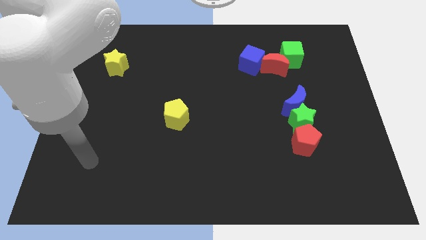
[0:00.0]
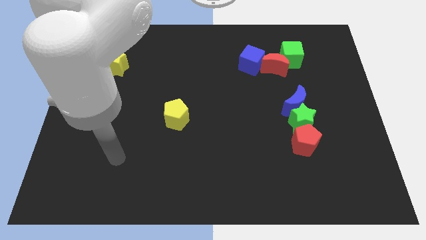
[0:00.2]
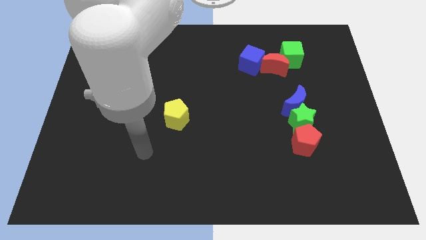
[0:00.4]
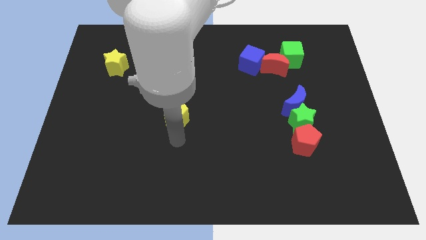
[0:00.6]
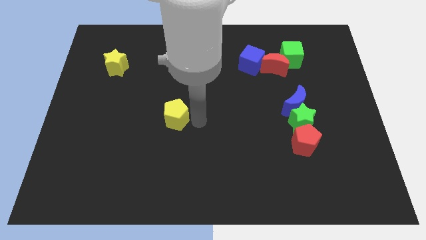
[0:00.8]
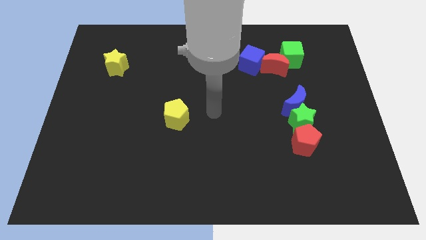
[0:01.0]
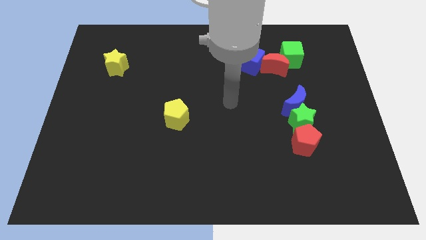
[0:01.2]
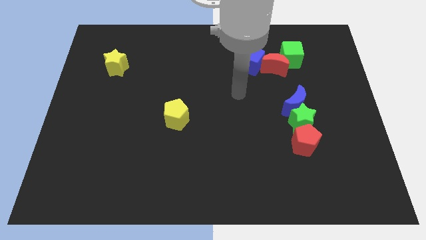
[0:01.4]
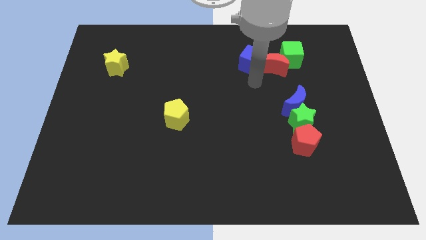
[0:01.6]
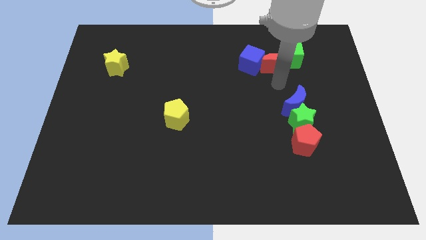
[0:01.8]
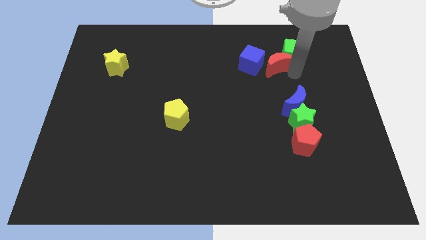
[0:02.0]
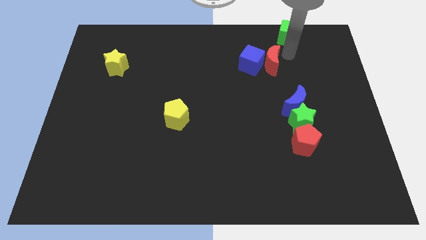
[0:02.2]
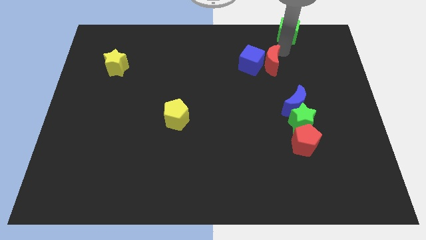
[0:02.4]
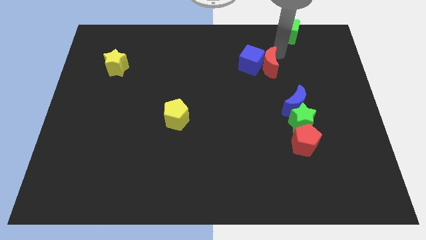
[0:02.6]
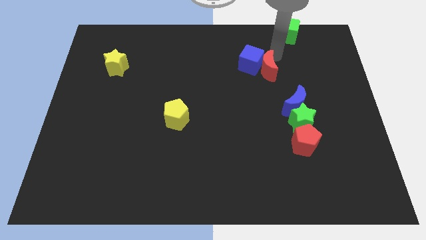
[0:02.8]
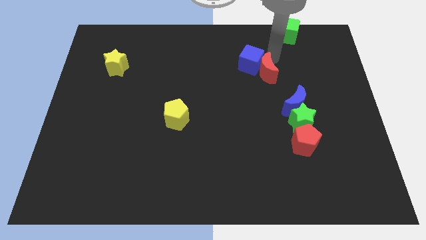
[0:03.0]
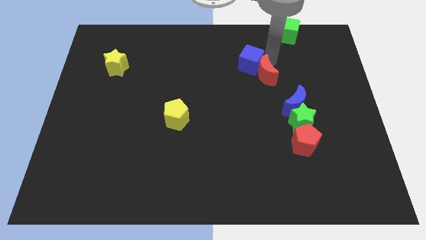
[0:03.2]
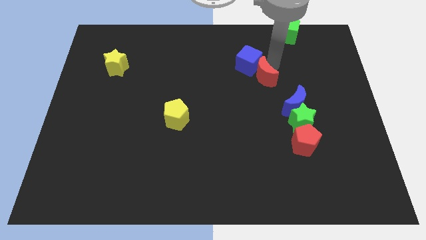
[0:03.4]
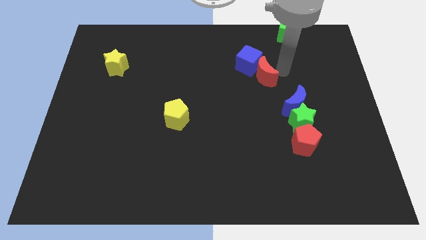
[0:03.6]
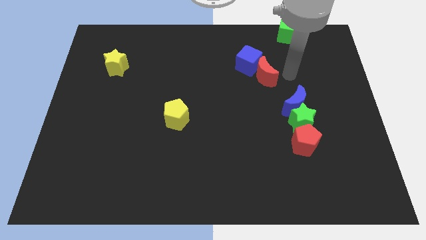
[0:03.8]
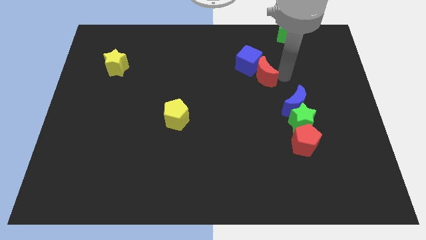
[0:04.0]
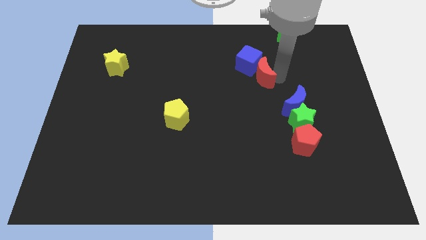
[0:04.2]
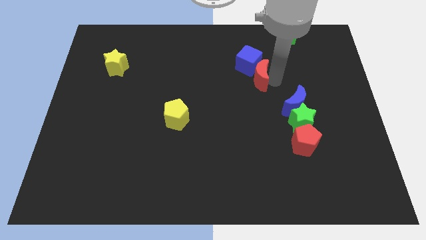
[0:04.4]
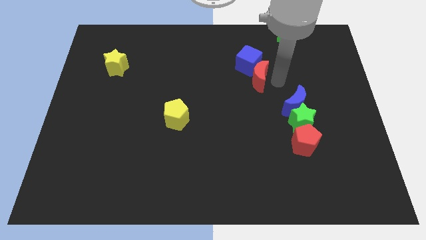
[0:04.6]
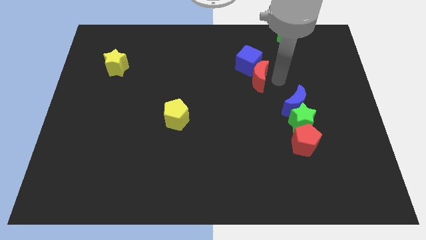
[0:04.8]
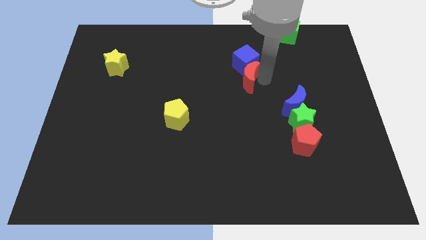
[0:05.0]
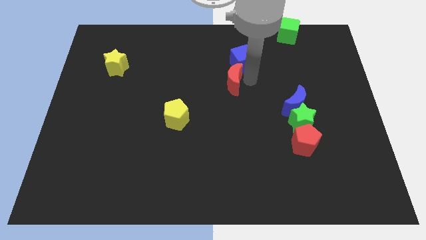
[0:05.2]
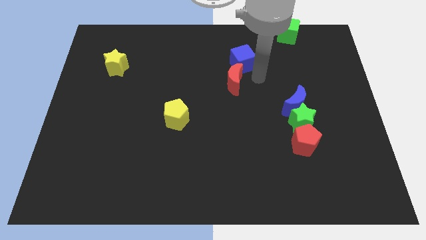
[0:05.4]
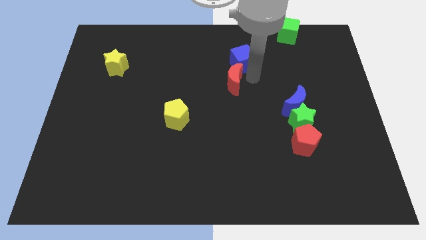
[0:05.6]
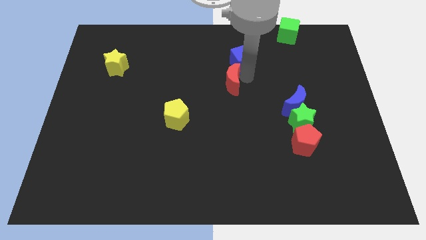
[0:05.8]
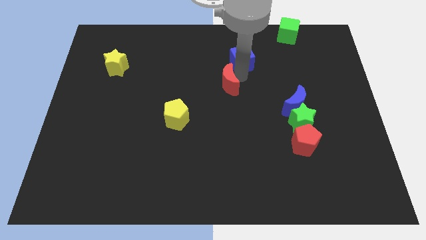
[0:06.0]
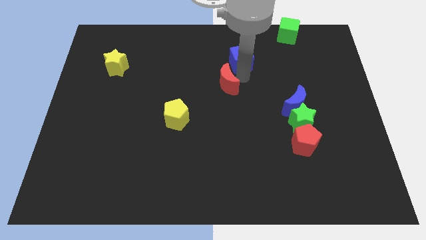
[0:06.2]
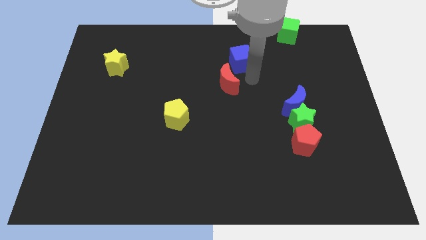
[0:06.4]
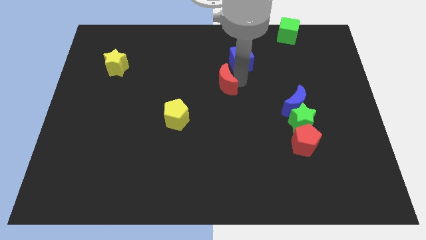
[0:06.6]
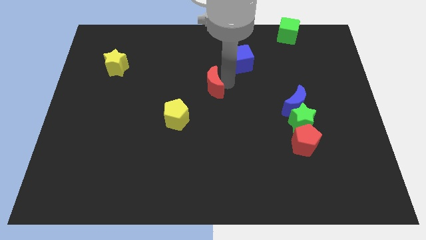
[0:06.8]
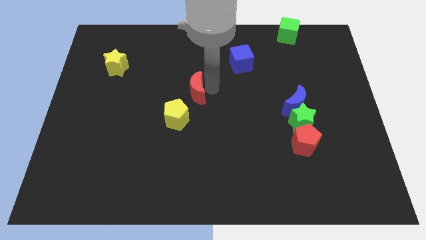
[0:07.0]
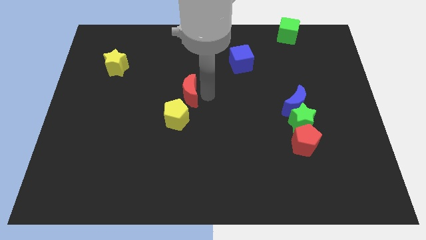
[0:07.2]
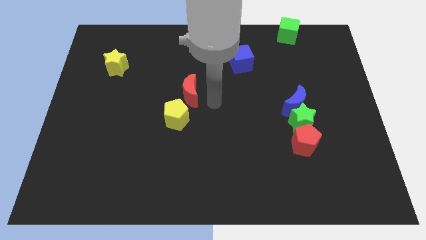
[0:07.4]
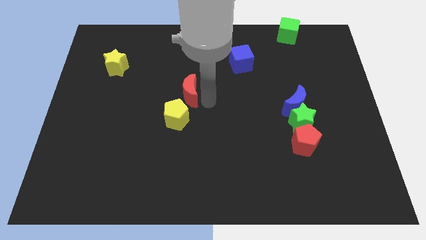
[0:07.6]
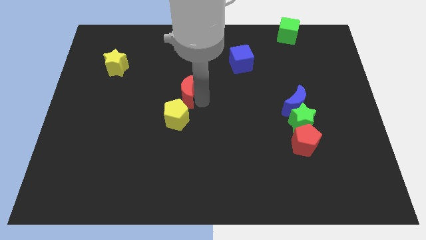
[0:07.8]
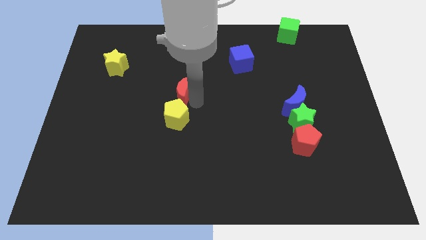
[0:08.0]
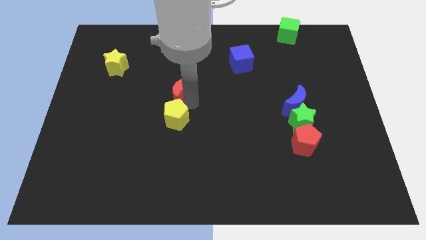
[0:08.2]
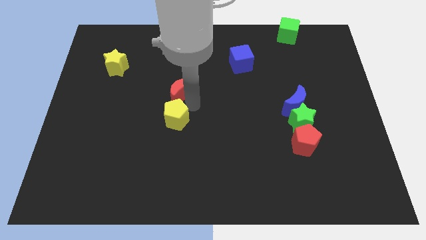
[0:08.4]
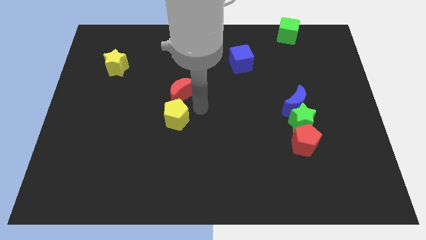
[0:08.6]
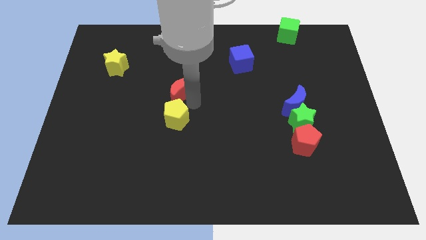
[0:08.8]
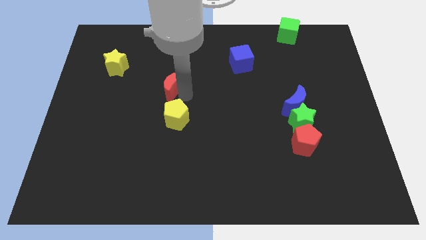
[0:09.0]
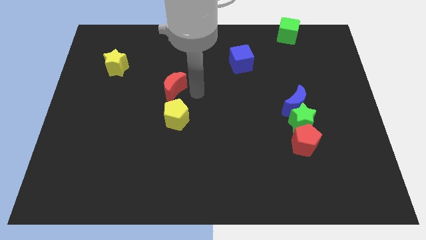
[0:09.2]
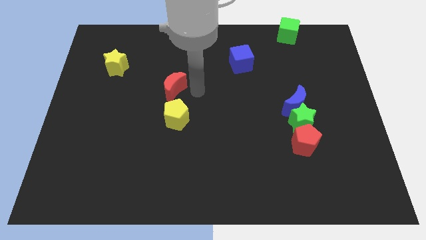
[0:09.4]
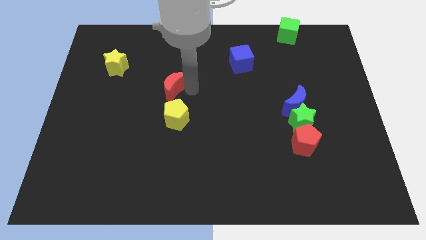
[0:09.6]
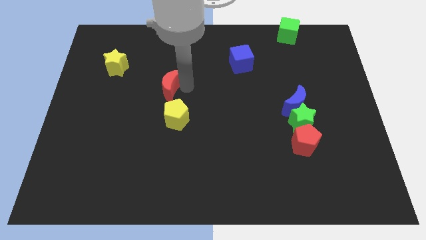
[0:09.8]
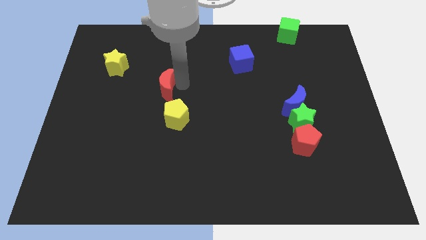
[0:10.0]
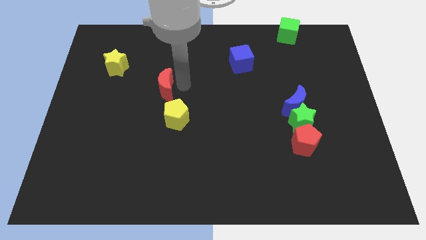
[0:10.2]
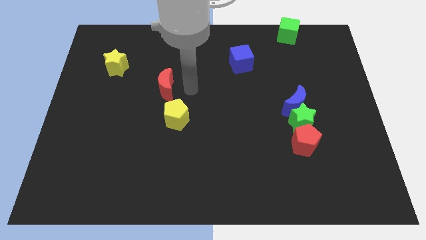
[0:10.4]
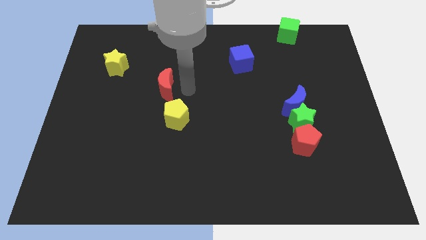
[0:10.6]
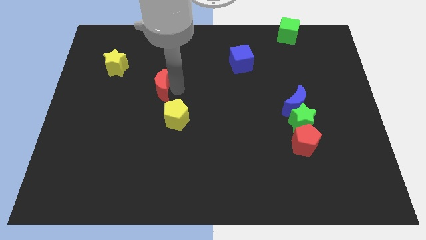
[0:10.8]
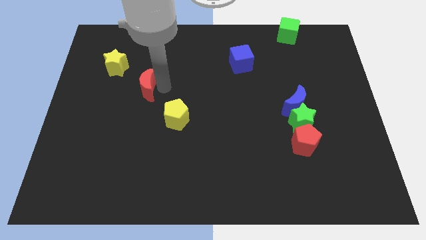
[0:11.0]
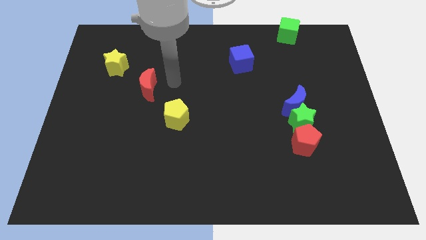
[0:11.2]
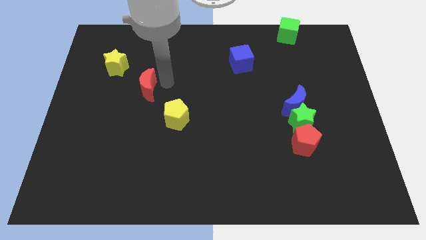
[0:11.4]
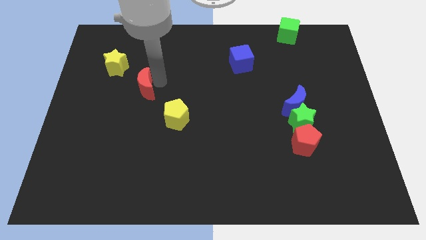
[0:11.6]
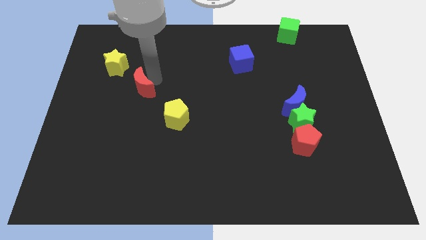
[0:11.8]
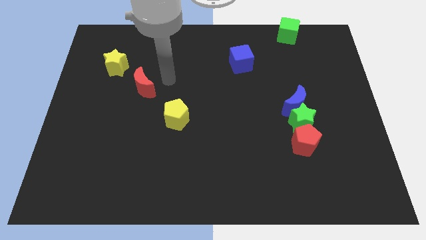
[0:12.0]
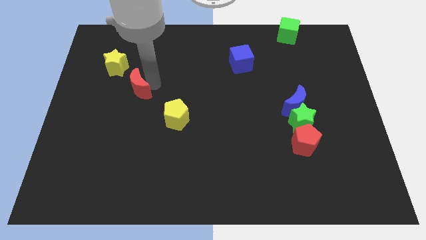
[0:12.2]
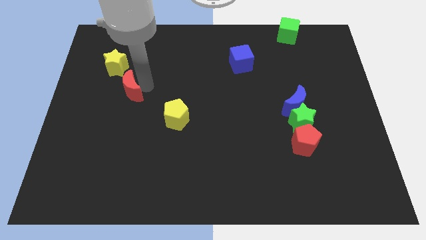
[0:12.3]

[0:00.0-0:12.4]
slide the red moon to the bottom of the yellow star

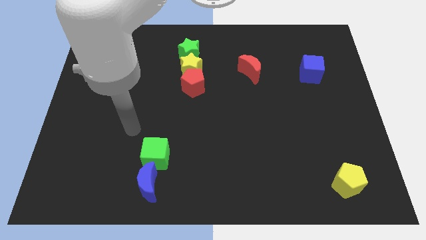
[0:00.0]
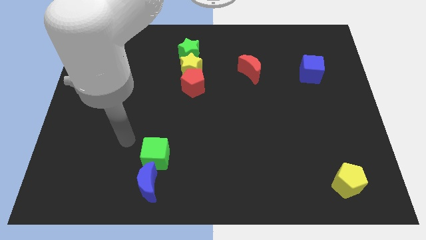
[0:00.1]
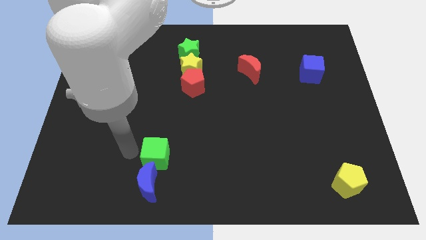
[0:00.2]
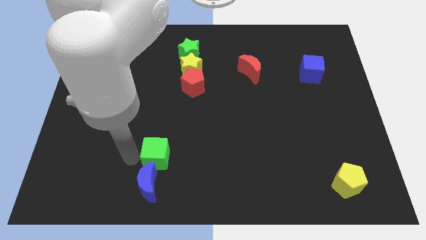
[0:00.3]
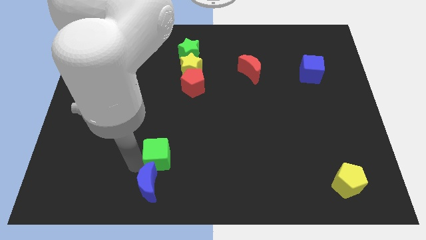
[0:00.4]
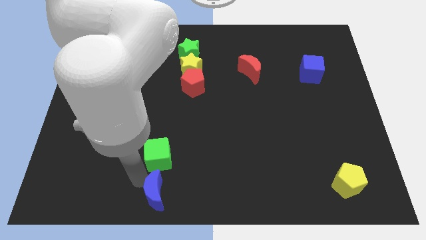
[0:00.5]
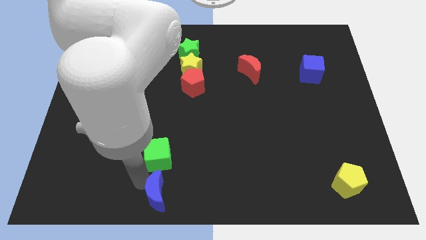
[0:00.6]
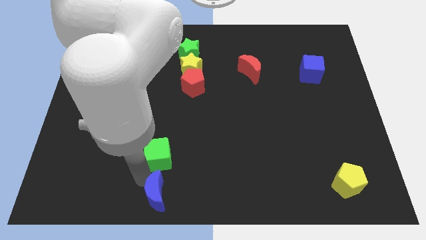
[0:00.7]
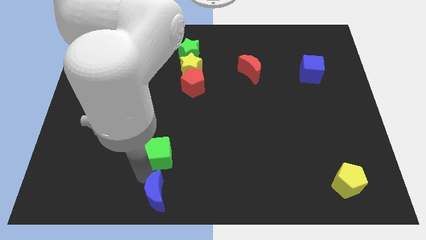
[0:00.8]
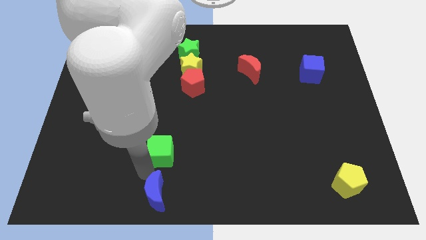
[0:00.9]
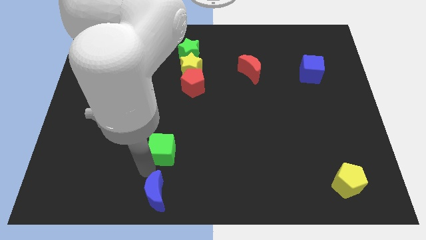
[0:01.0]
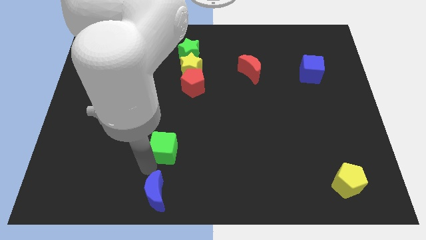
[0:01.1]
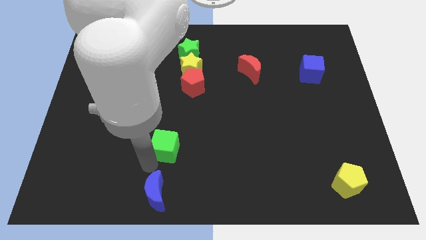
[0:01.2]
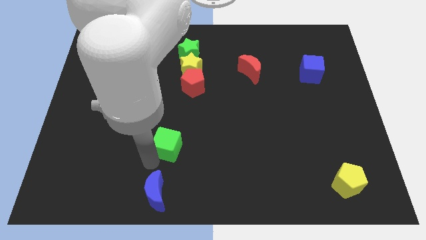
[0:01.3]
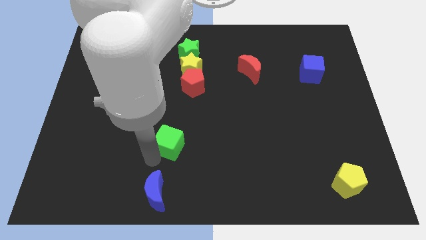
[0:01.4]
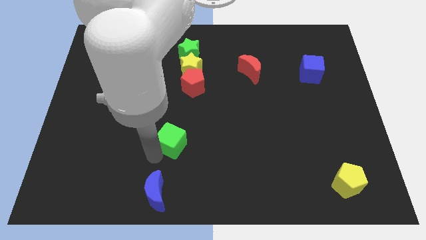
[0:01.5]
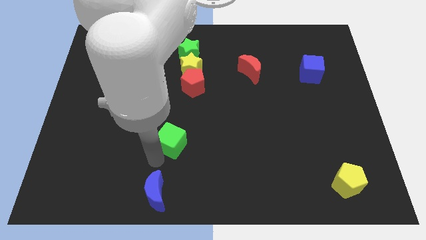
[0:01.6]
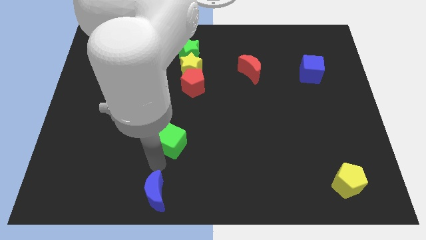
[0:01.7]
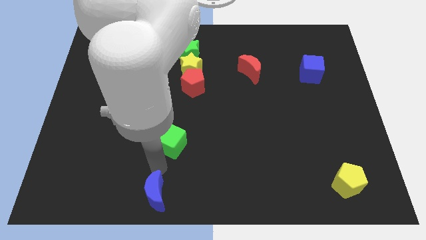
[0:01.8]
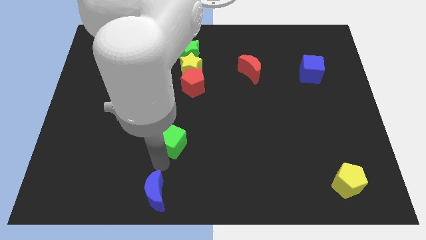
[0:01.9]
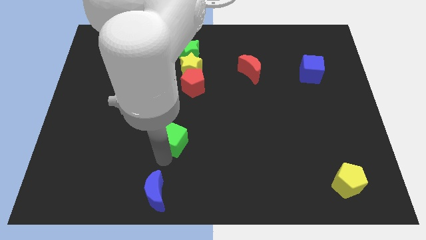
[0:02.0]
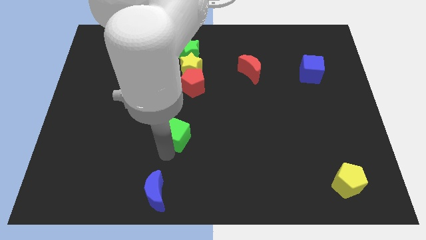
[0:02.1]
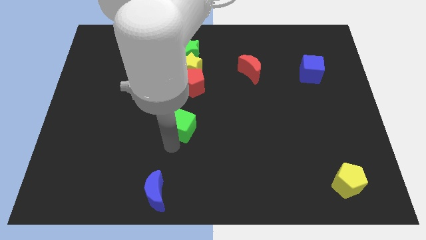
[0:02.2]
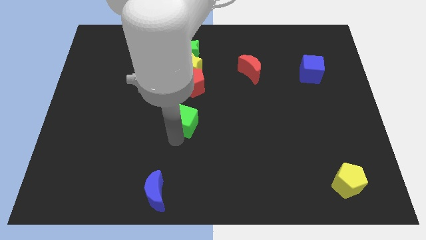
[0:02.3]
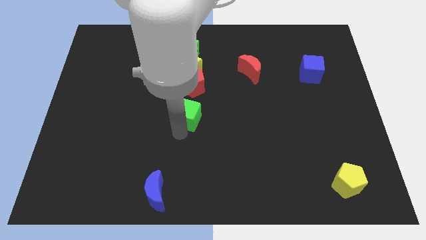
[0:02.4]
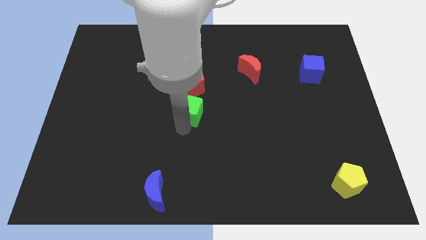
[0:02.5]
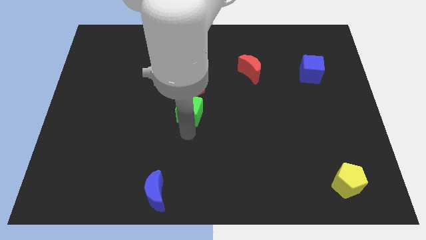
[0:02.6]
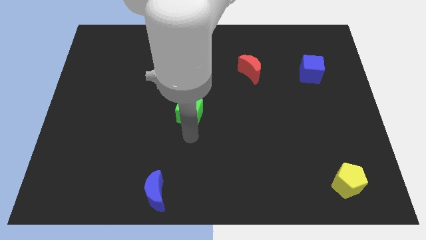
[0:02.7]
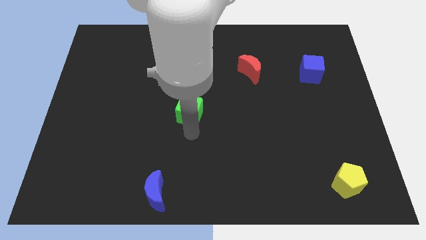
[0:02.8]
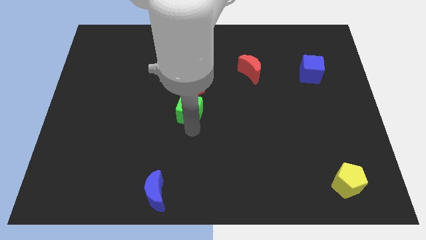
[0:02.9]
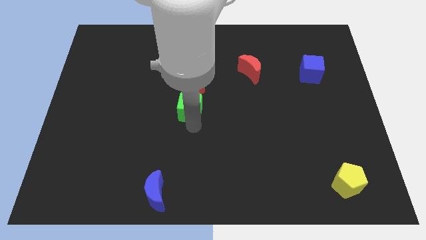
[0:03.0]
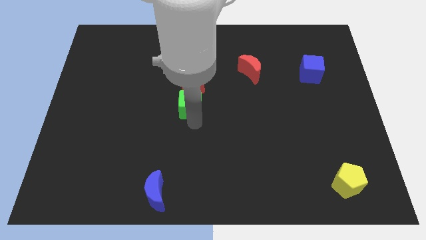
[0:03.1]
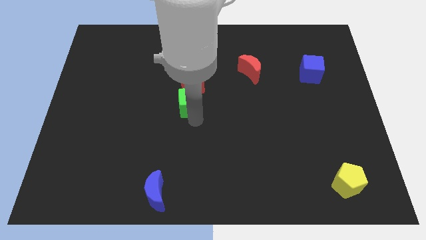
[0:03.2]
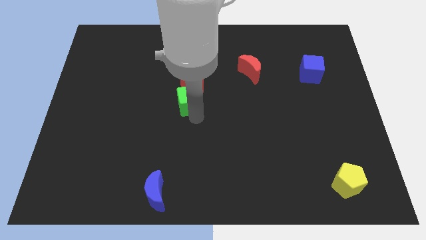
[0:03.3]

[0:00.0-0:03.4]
move the green cube below the green star
